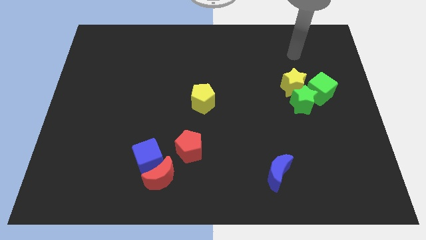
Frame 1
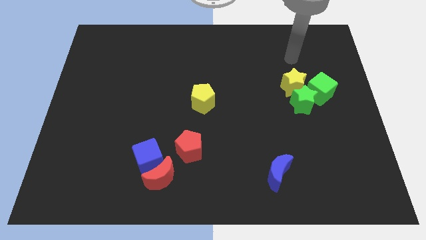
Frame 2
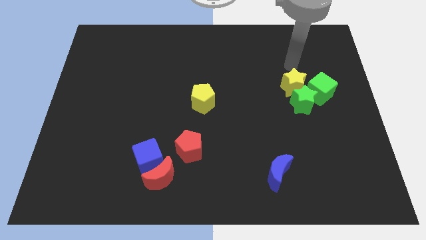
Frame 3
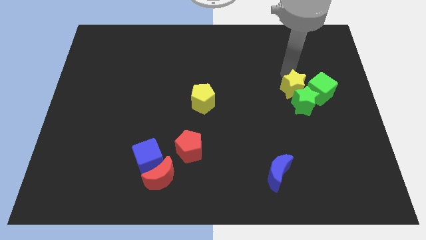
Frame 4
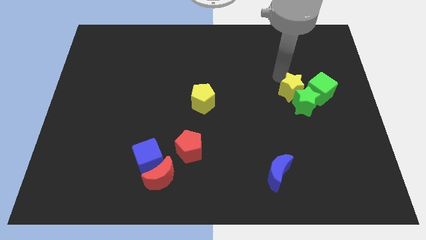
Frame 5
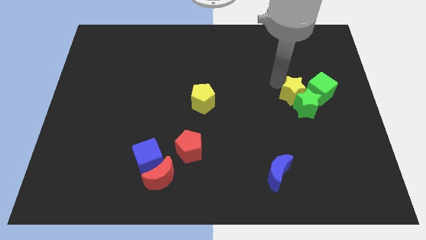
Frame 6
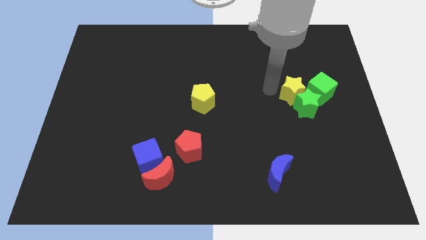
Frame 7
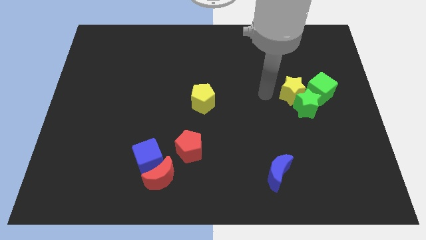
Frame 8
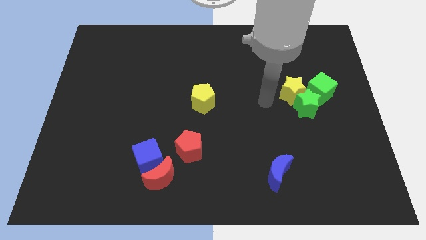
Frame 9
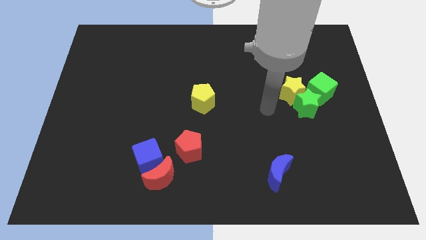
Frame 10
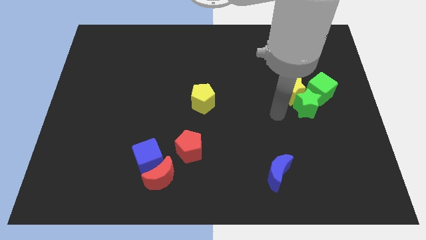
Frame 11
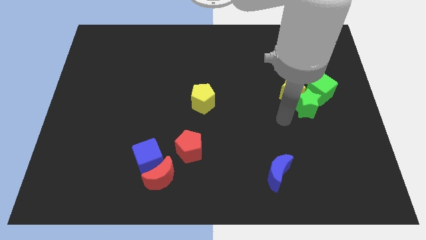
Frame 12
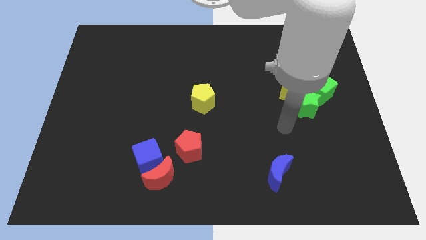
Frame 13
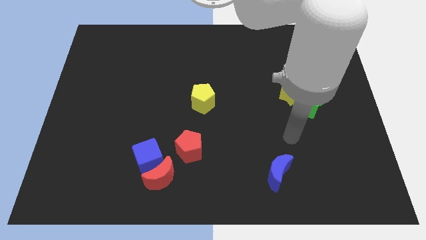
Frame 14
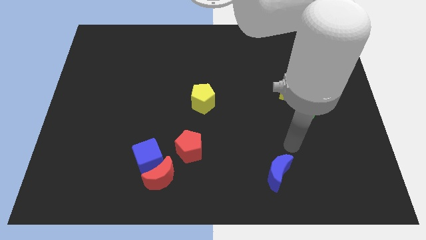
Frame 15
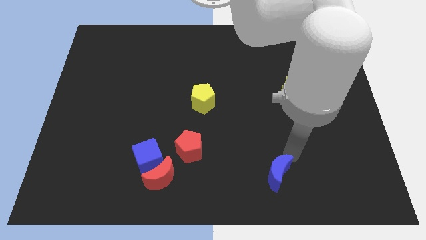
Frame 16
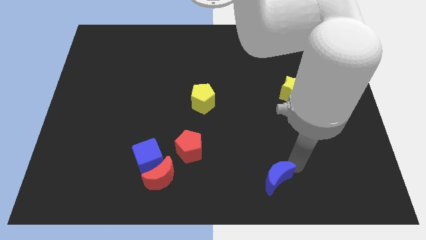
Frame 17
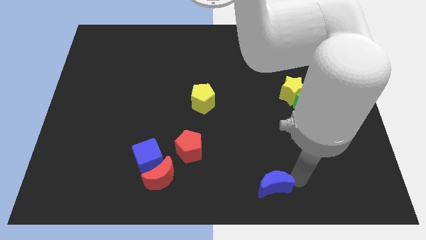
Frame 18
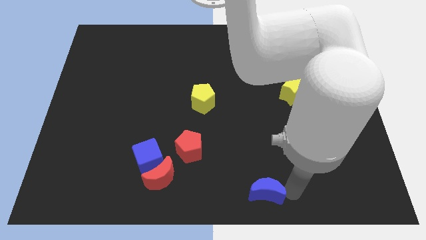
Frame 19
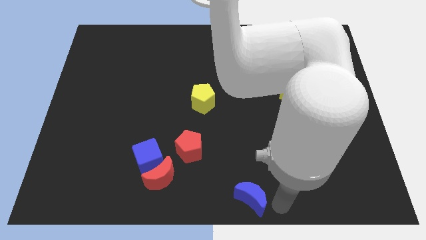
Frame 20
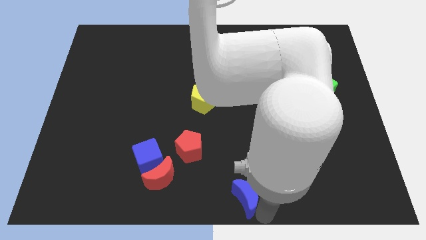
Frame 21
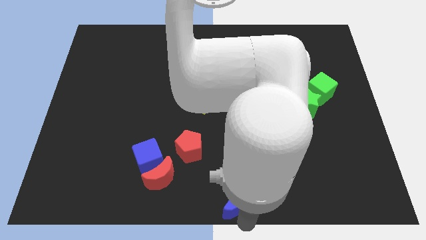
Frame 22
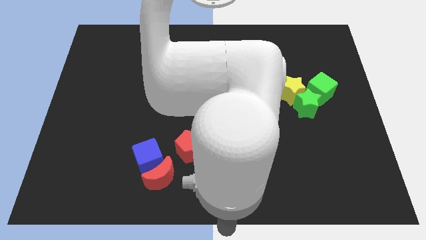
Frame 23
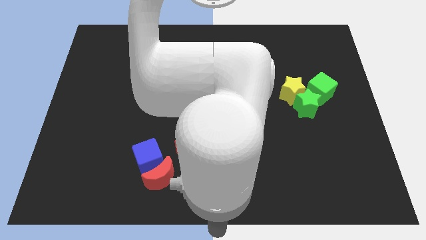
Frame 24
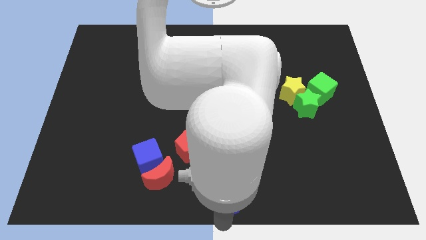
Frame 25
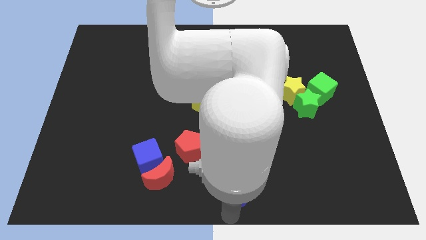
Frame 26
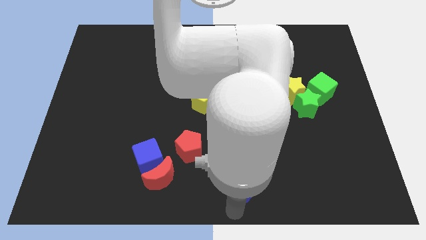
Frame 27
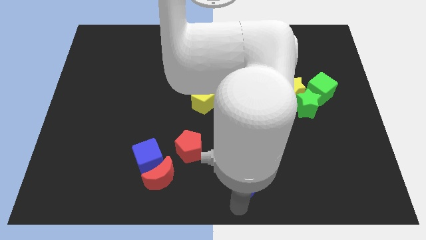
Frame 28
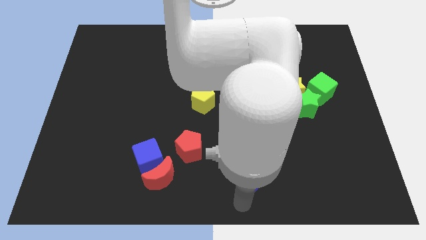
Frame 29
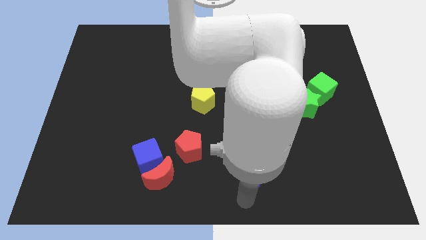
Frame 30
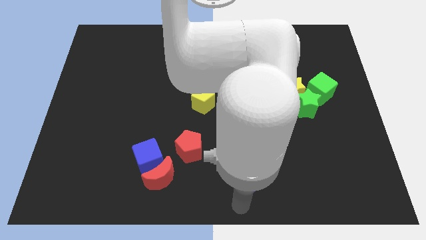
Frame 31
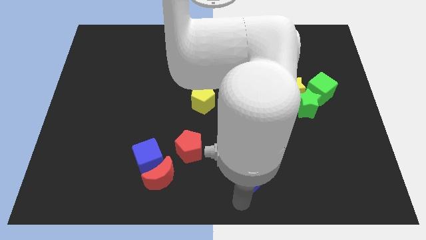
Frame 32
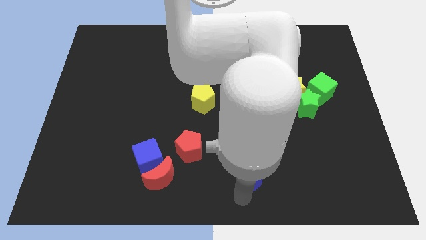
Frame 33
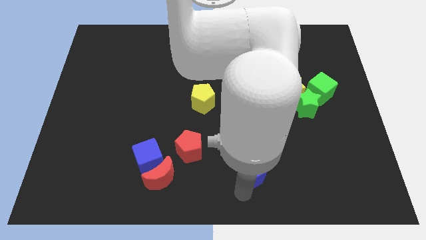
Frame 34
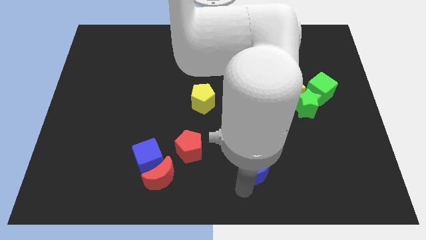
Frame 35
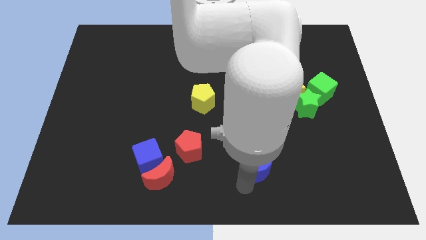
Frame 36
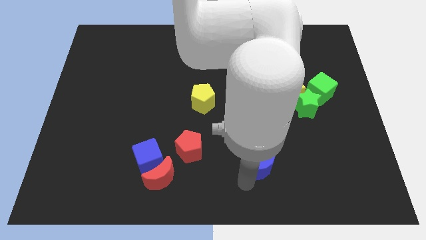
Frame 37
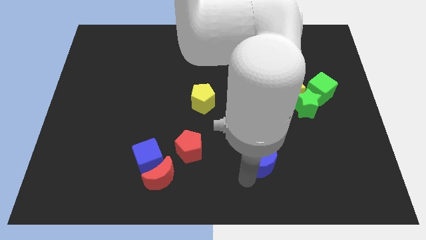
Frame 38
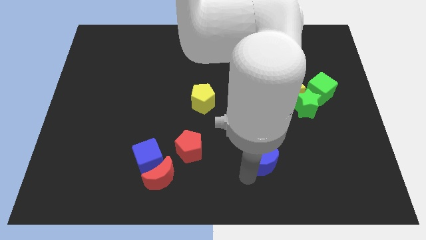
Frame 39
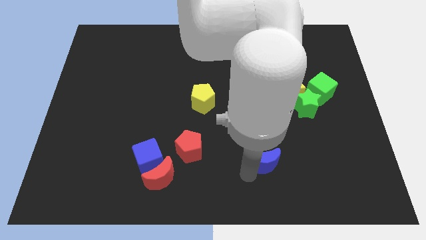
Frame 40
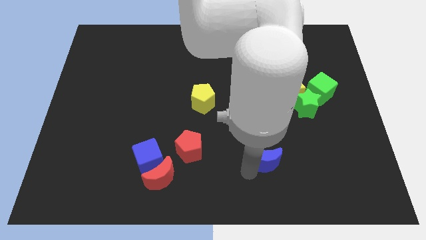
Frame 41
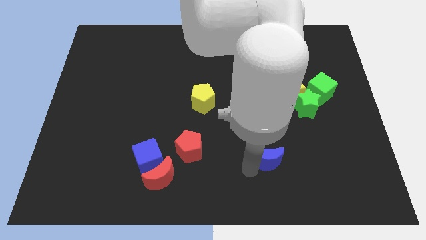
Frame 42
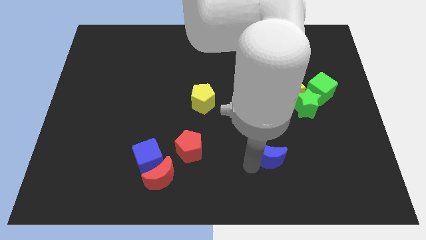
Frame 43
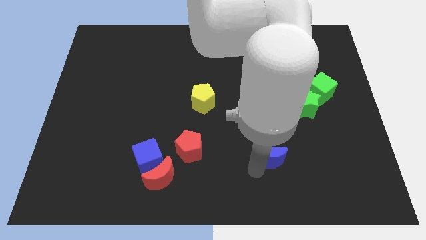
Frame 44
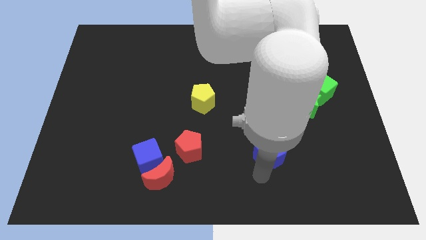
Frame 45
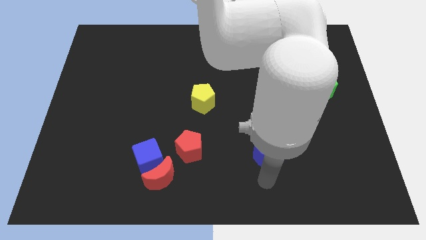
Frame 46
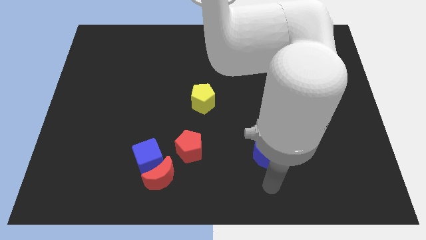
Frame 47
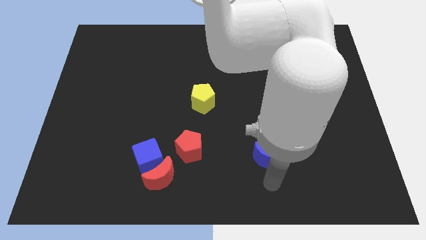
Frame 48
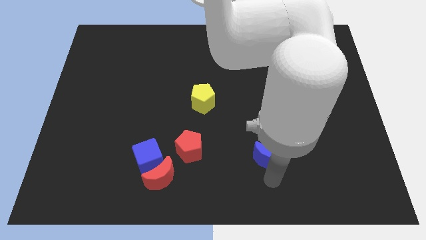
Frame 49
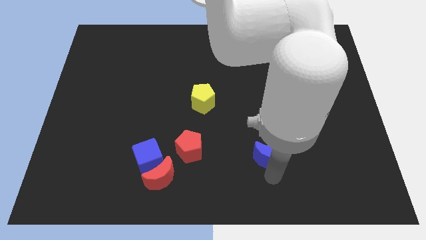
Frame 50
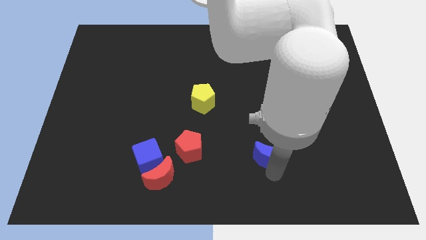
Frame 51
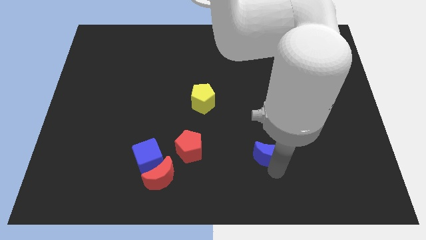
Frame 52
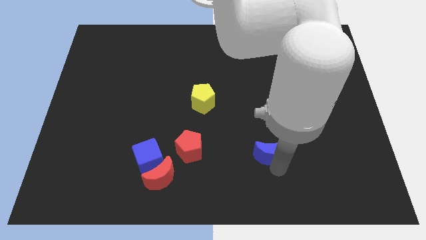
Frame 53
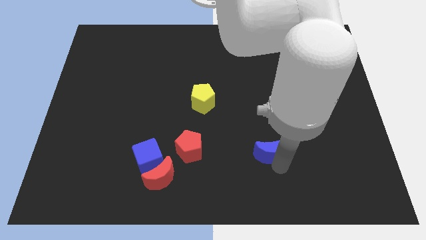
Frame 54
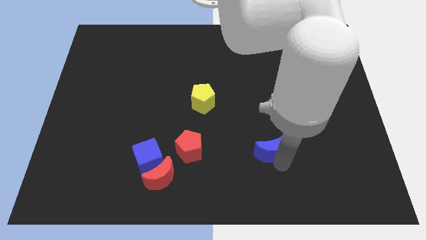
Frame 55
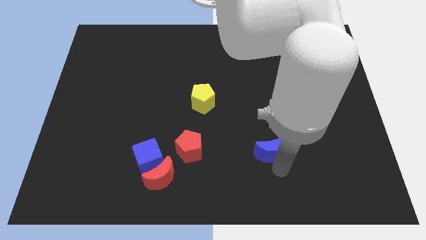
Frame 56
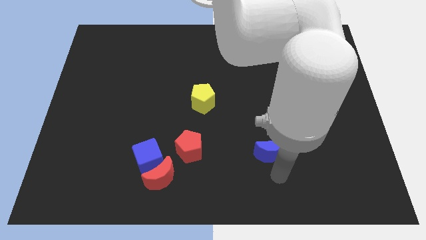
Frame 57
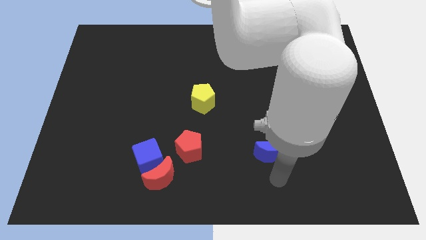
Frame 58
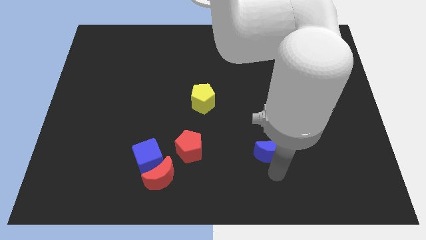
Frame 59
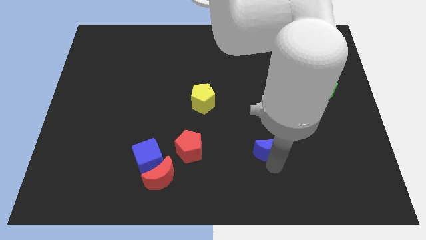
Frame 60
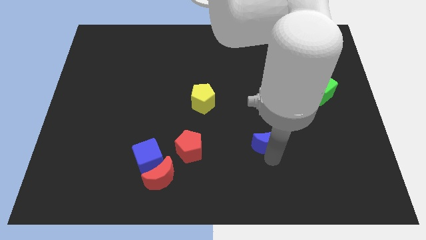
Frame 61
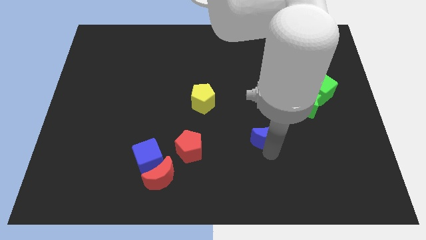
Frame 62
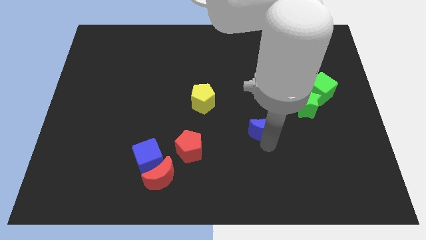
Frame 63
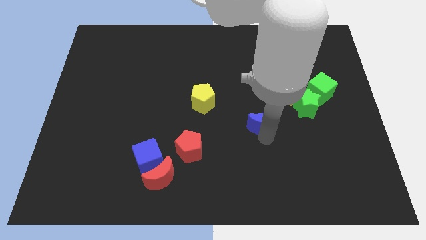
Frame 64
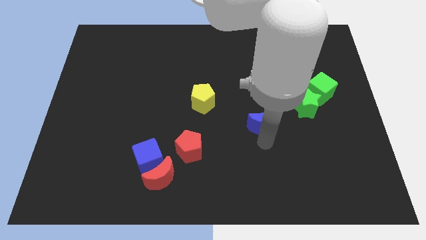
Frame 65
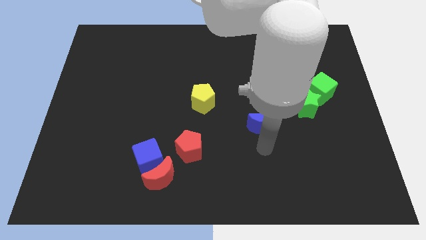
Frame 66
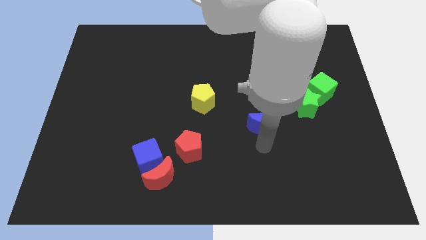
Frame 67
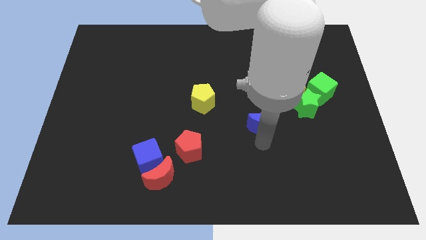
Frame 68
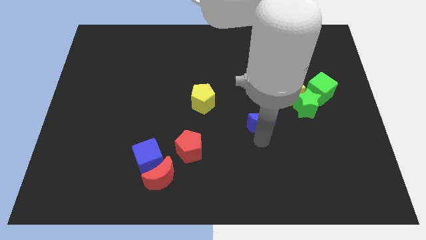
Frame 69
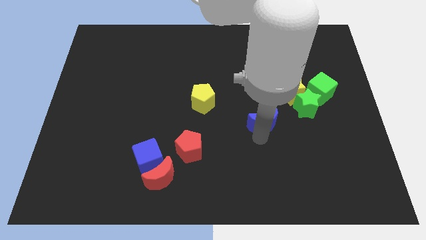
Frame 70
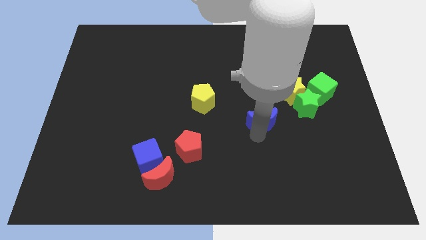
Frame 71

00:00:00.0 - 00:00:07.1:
put the blue moon to the left of the green star
